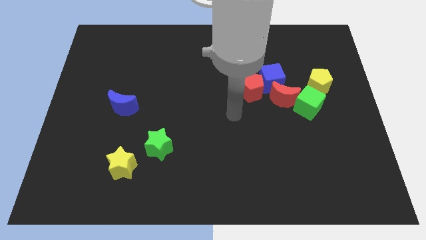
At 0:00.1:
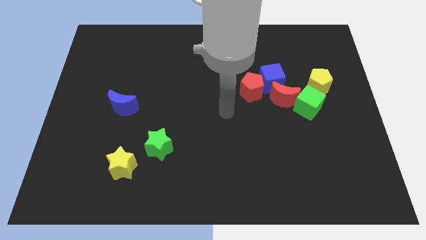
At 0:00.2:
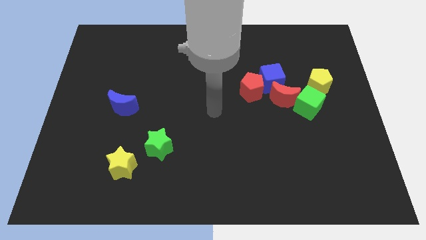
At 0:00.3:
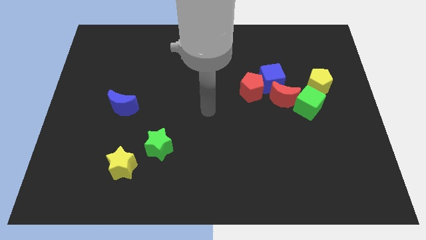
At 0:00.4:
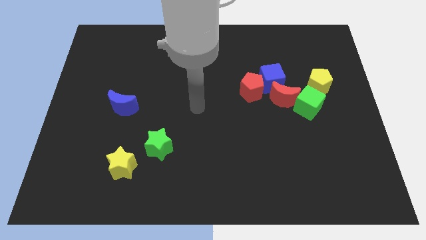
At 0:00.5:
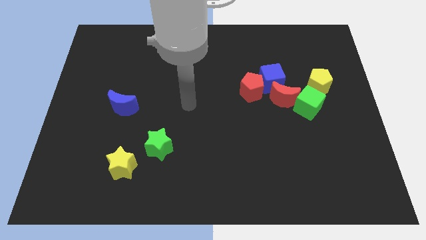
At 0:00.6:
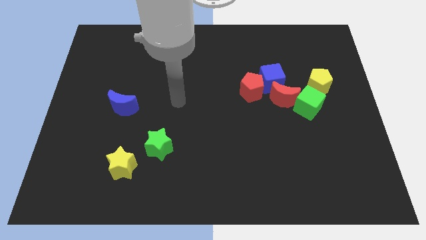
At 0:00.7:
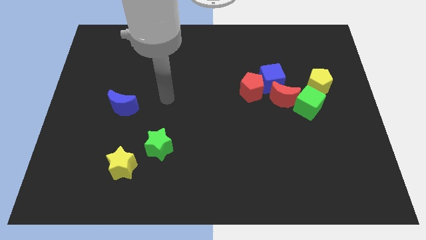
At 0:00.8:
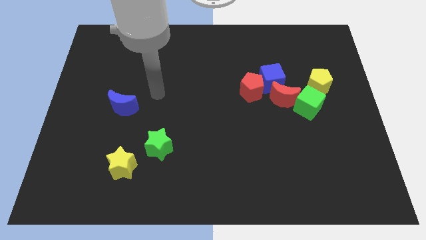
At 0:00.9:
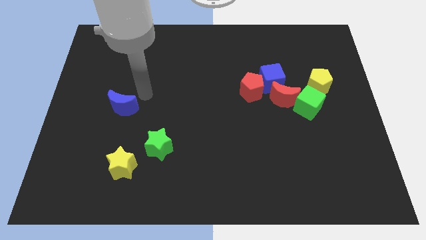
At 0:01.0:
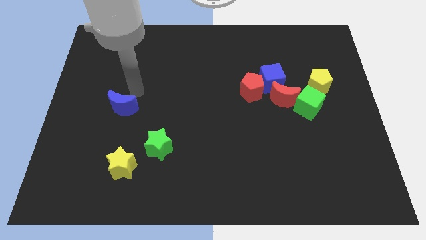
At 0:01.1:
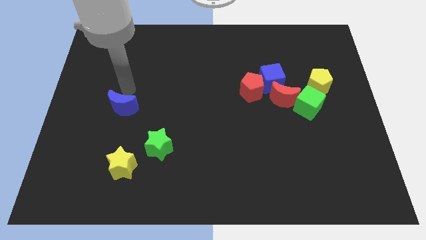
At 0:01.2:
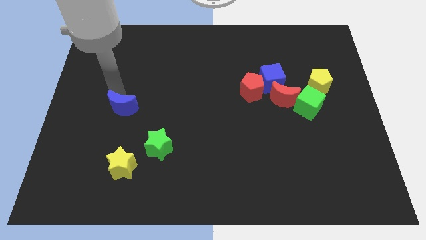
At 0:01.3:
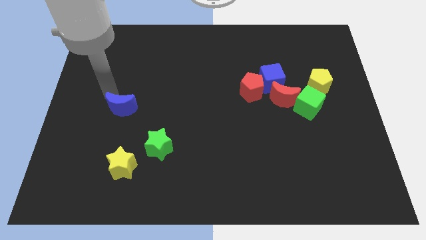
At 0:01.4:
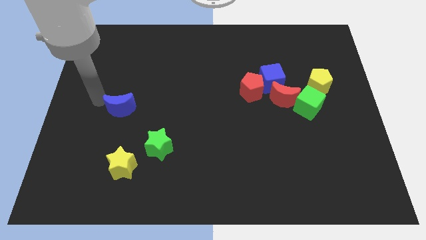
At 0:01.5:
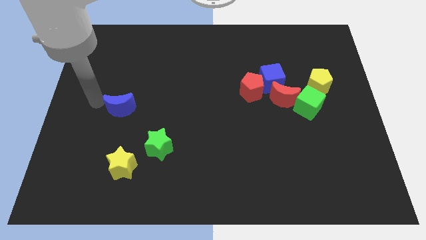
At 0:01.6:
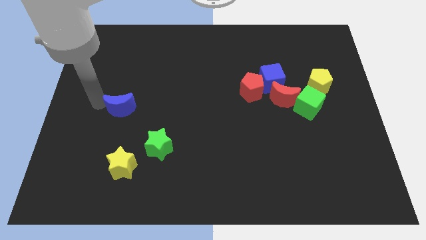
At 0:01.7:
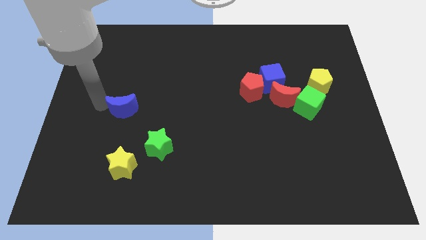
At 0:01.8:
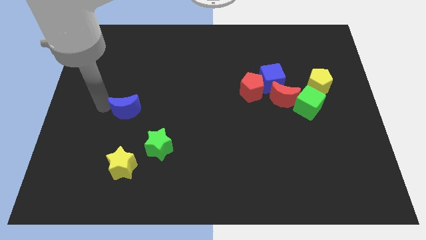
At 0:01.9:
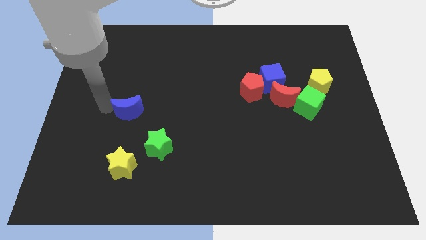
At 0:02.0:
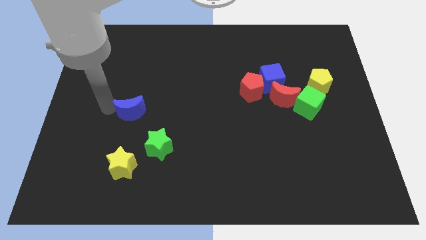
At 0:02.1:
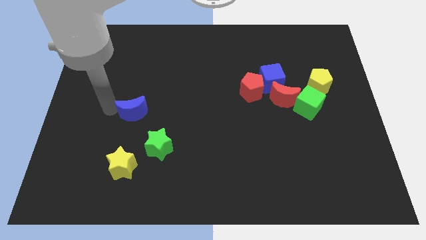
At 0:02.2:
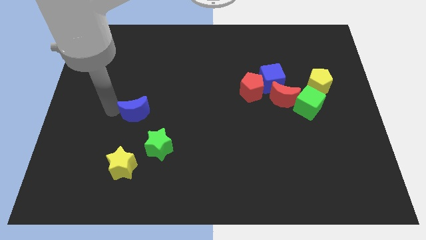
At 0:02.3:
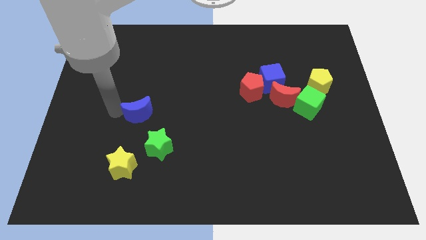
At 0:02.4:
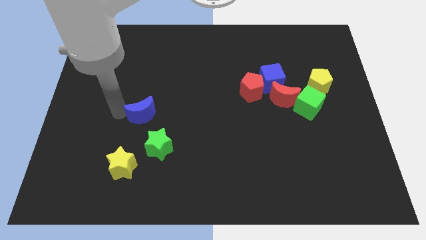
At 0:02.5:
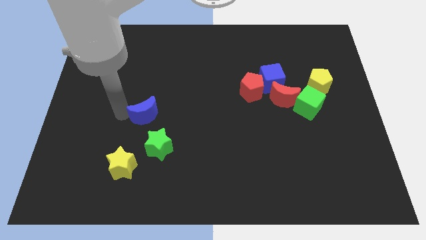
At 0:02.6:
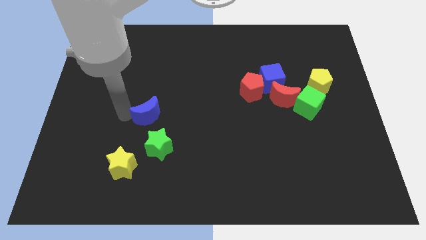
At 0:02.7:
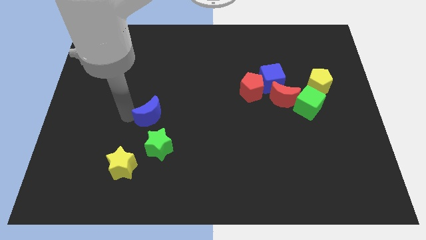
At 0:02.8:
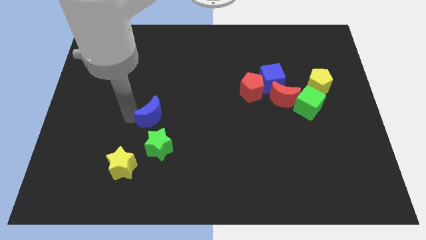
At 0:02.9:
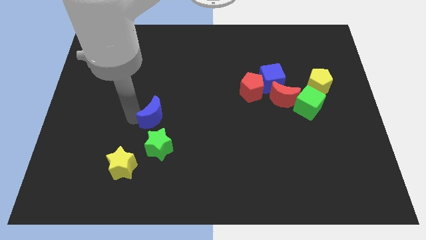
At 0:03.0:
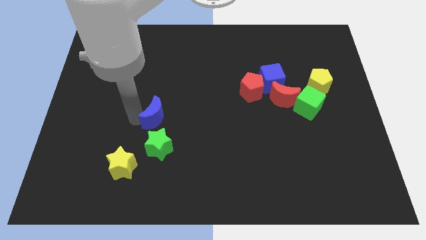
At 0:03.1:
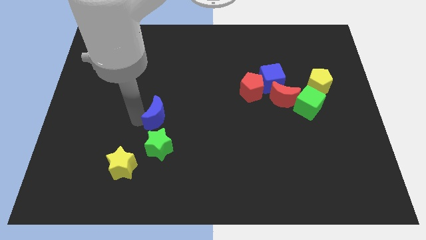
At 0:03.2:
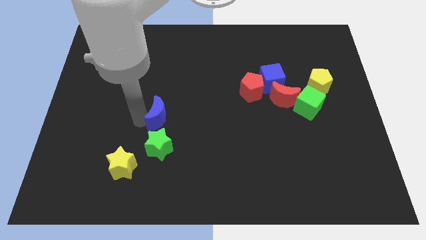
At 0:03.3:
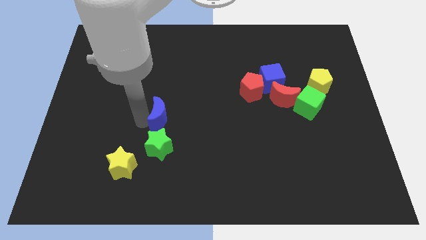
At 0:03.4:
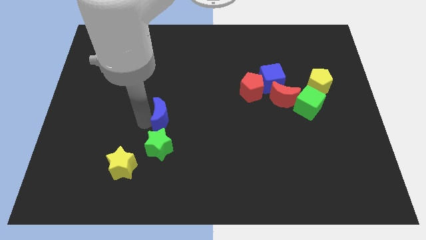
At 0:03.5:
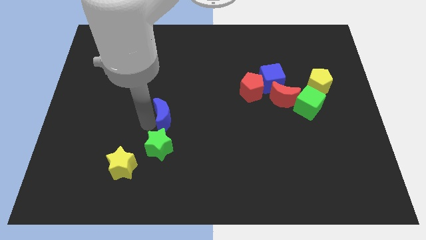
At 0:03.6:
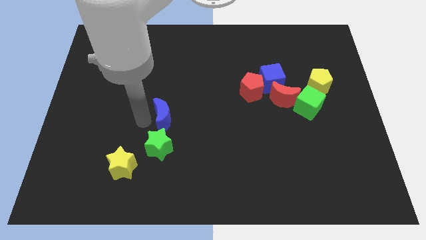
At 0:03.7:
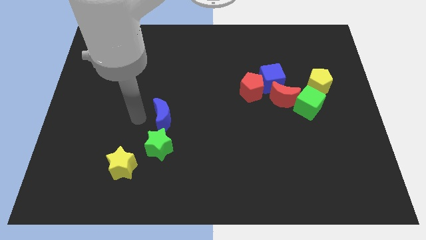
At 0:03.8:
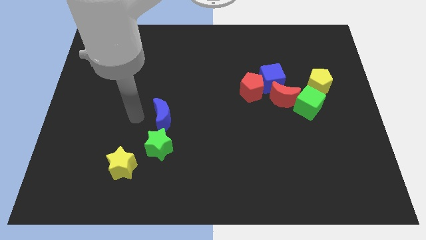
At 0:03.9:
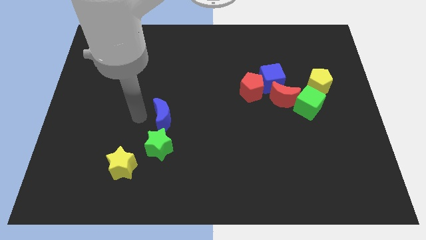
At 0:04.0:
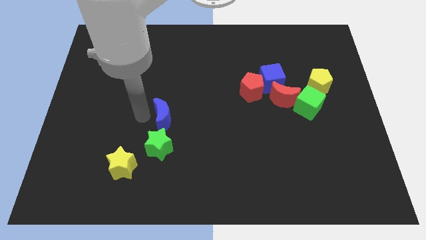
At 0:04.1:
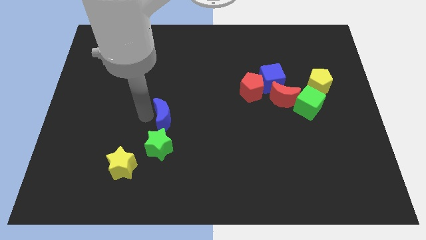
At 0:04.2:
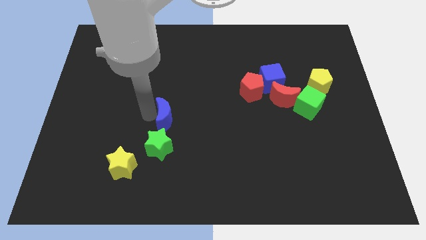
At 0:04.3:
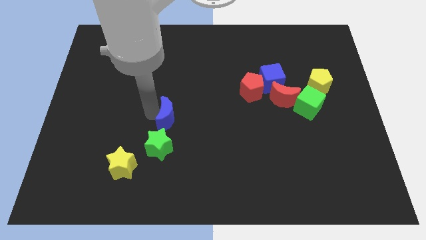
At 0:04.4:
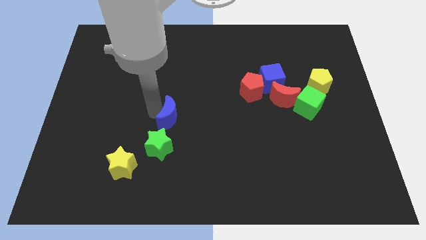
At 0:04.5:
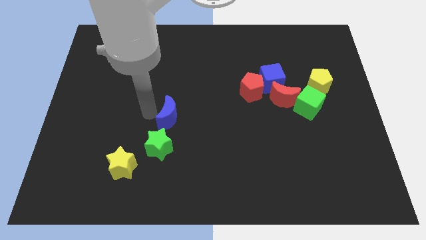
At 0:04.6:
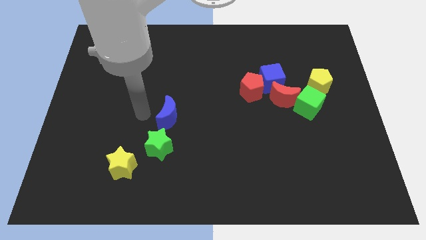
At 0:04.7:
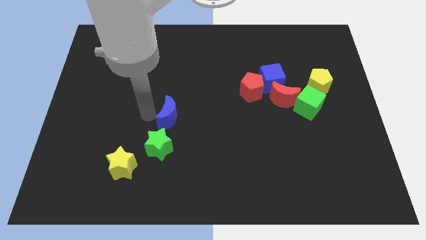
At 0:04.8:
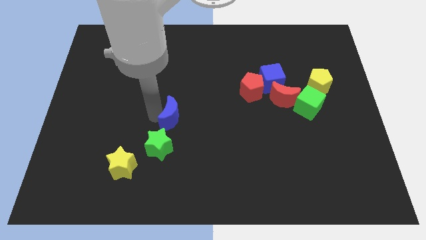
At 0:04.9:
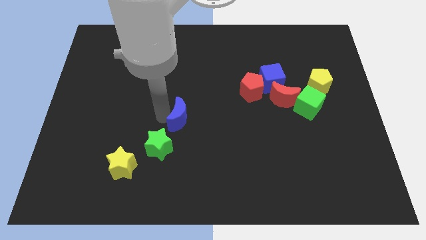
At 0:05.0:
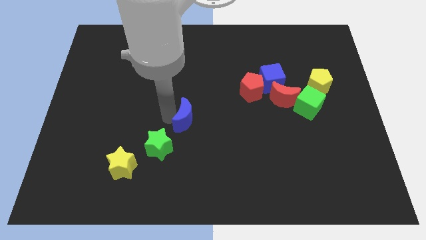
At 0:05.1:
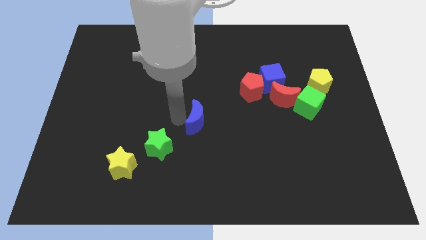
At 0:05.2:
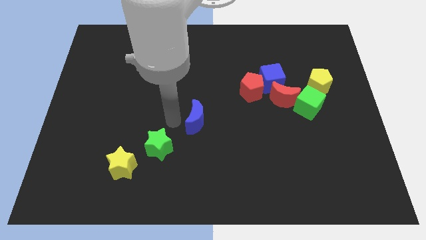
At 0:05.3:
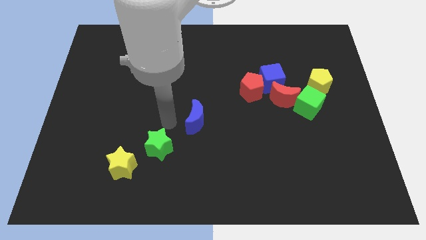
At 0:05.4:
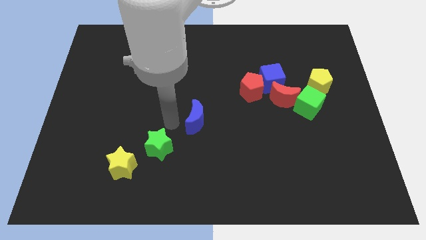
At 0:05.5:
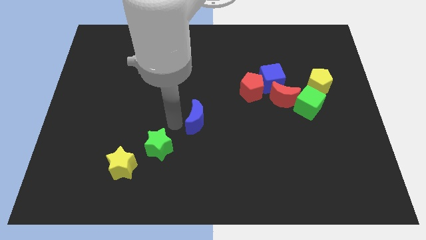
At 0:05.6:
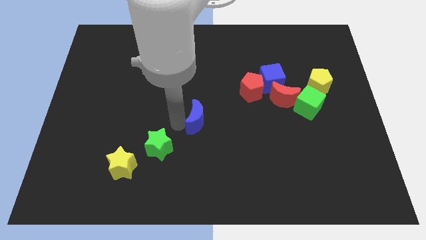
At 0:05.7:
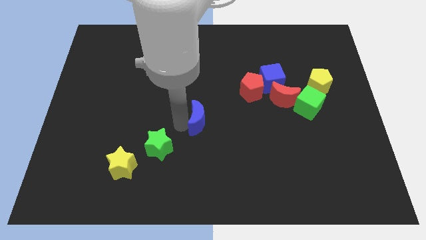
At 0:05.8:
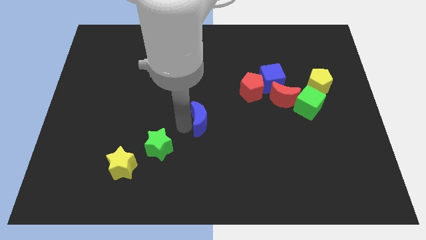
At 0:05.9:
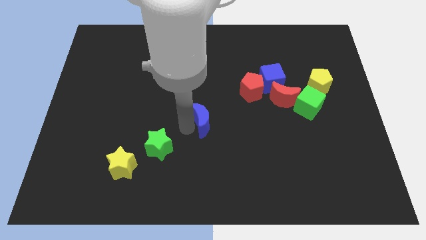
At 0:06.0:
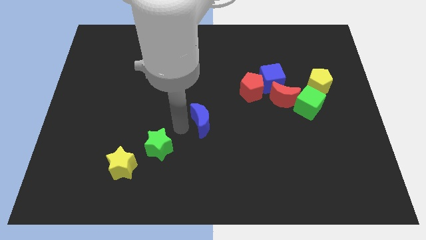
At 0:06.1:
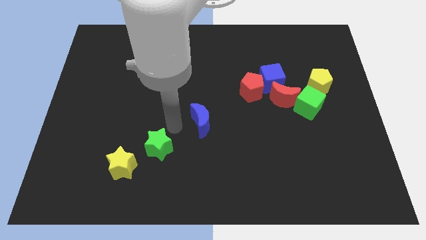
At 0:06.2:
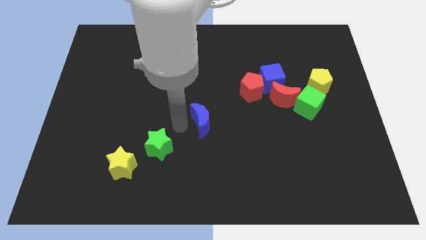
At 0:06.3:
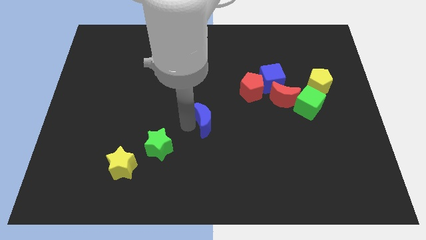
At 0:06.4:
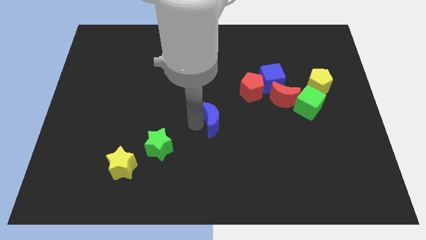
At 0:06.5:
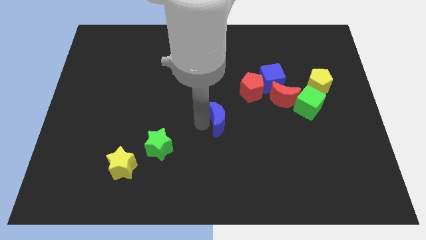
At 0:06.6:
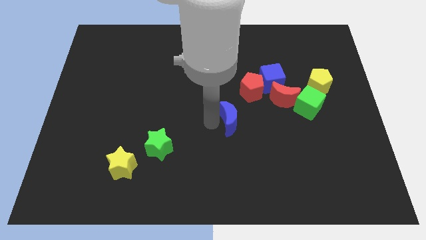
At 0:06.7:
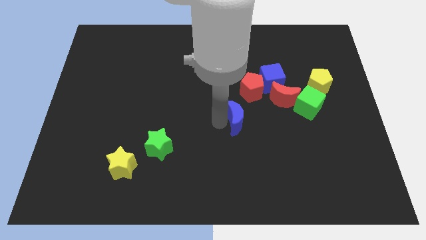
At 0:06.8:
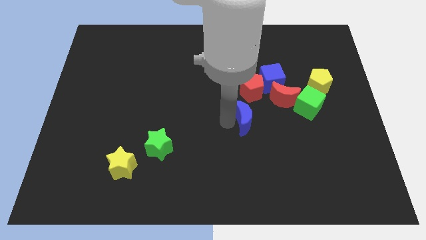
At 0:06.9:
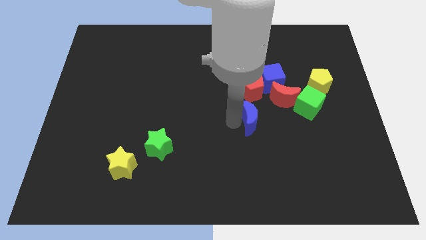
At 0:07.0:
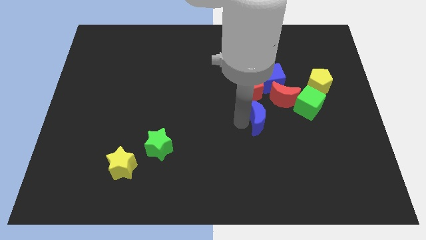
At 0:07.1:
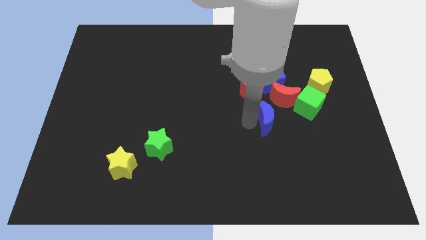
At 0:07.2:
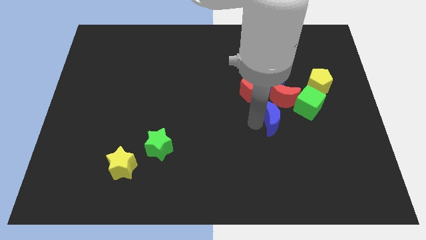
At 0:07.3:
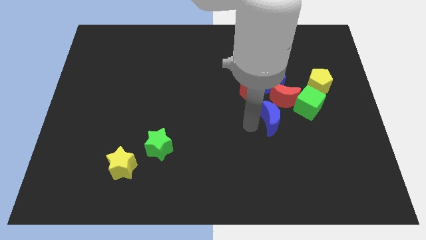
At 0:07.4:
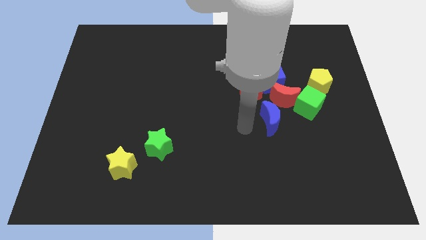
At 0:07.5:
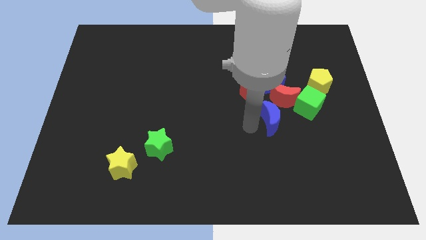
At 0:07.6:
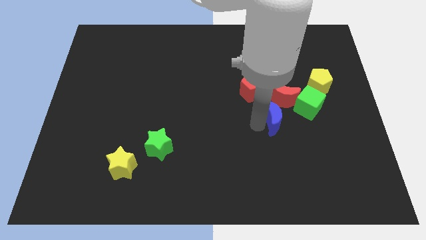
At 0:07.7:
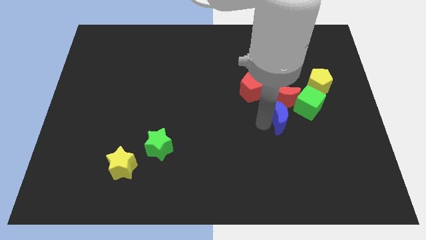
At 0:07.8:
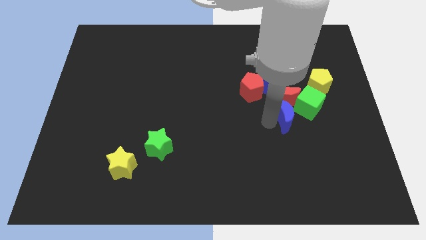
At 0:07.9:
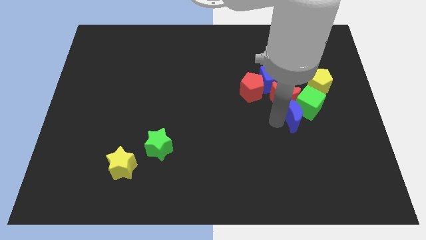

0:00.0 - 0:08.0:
move the blue moon close to the green cube
